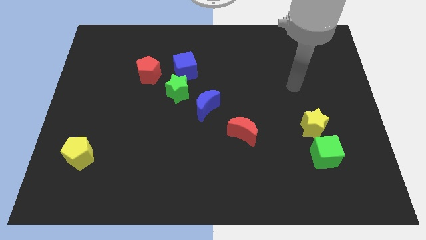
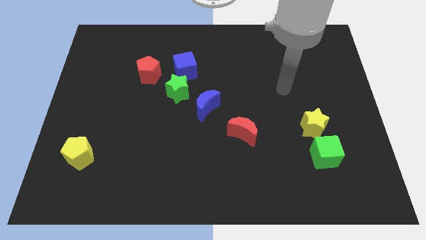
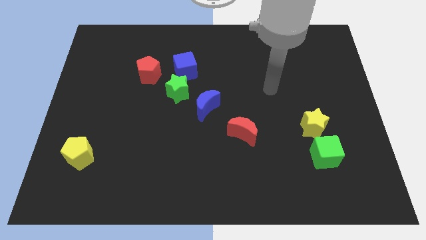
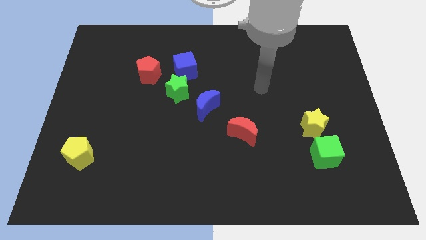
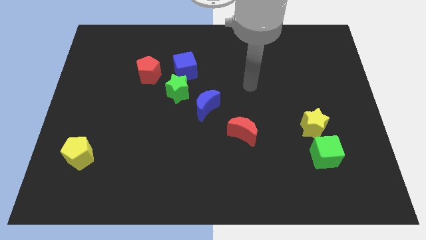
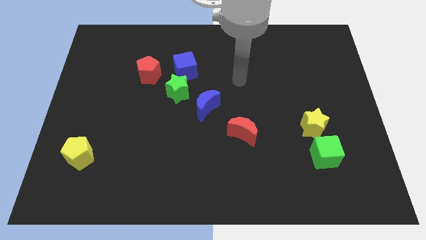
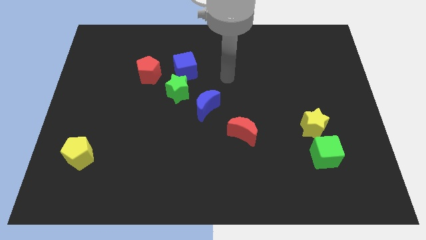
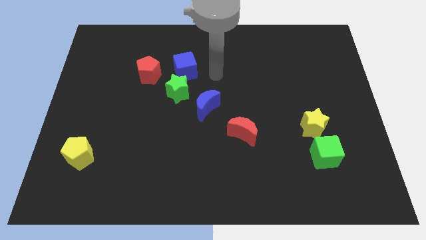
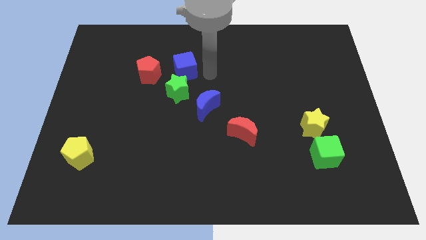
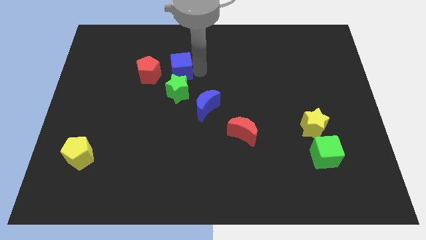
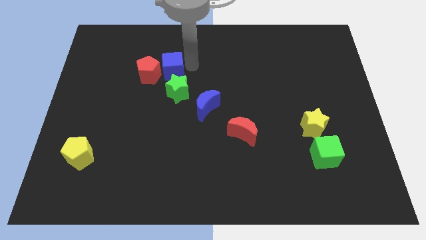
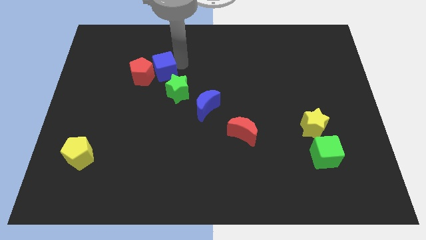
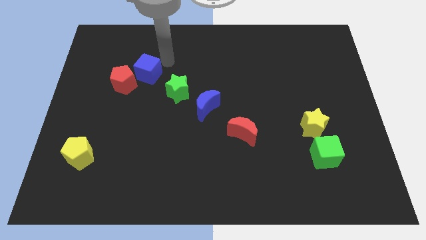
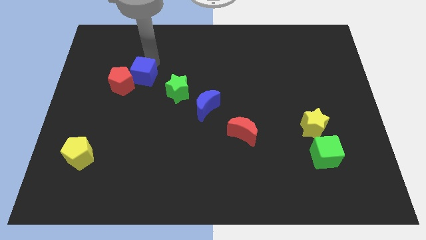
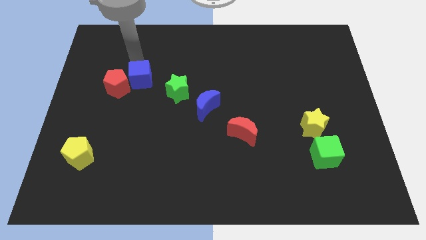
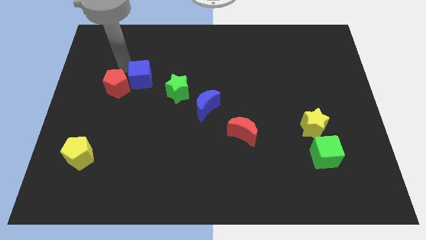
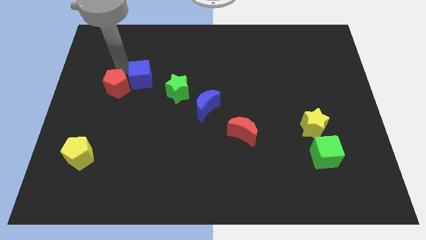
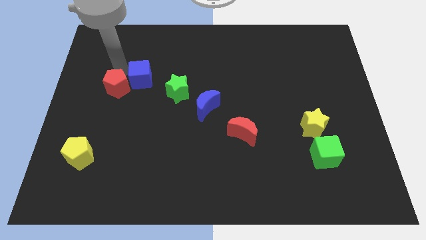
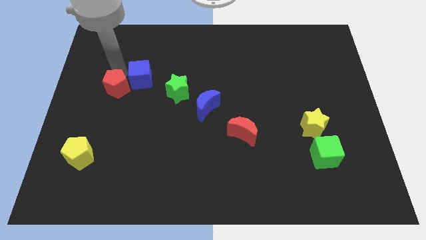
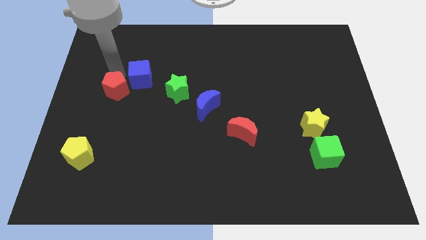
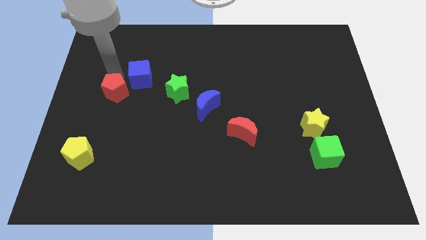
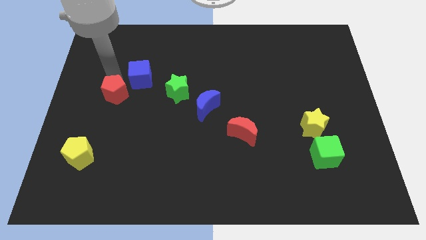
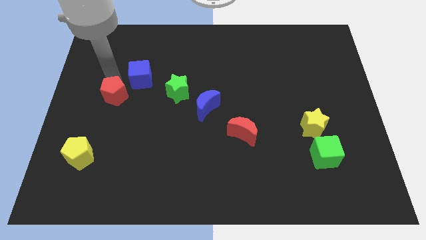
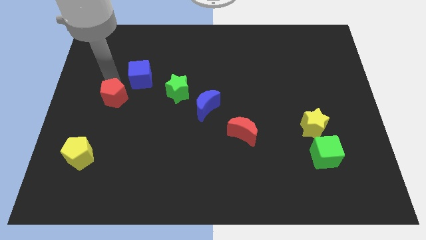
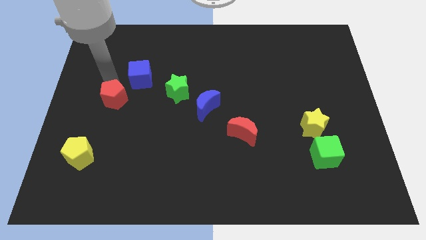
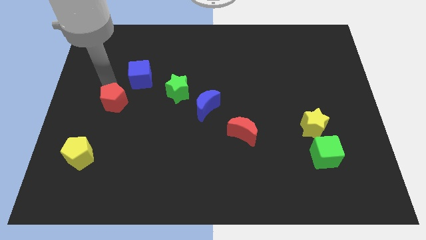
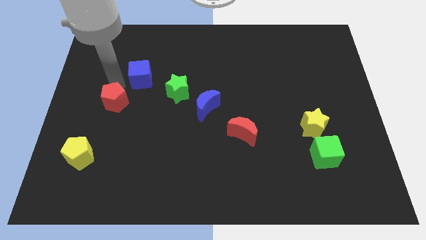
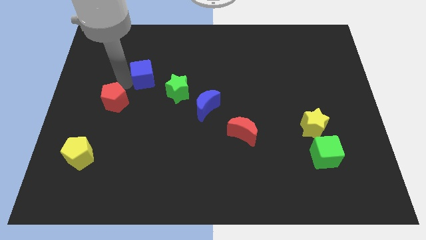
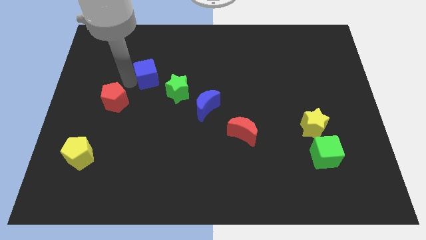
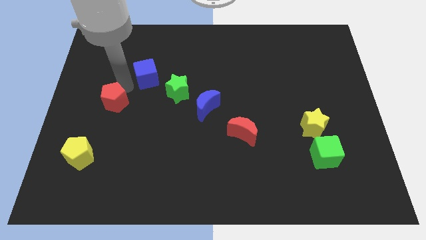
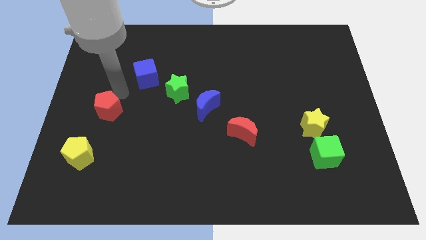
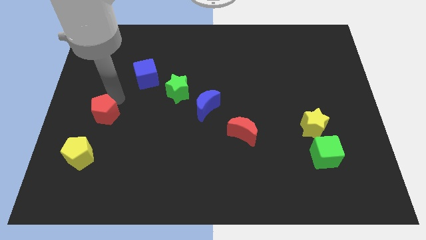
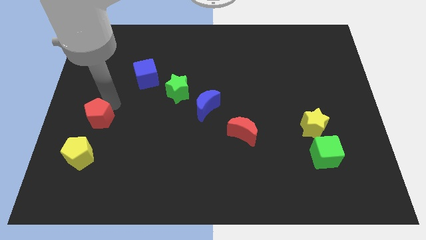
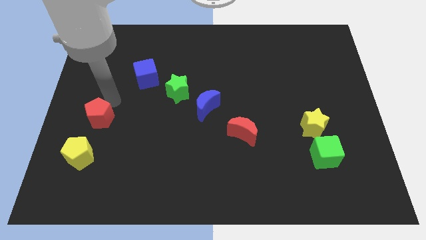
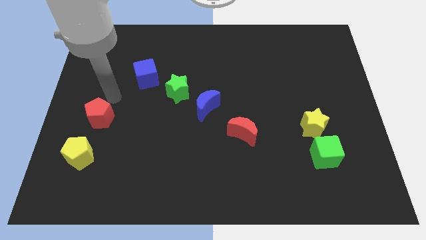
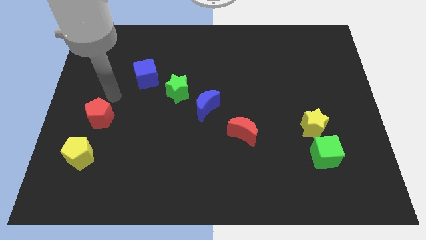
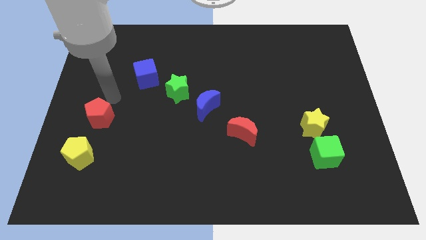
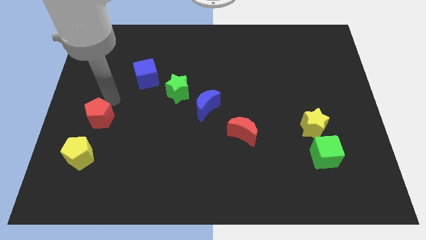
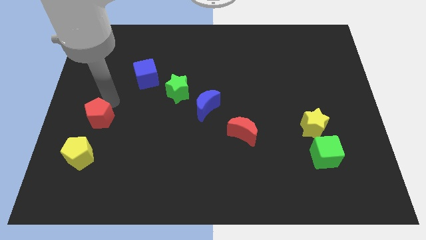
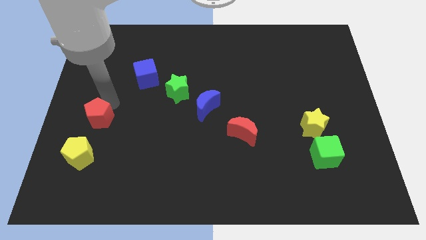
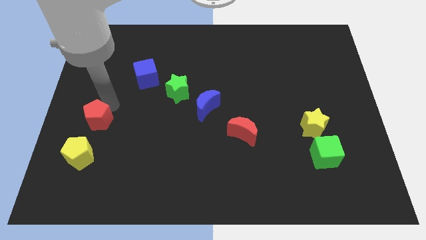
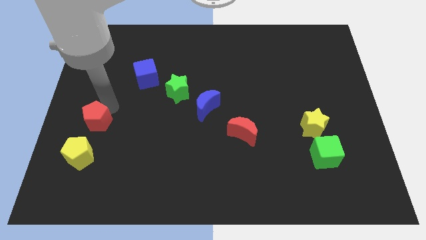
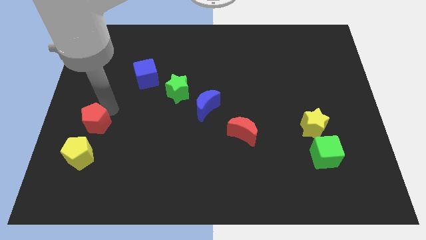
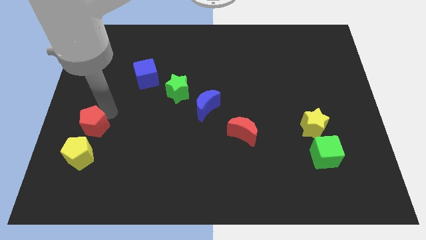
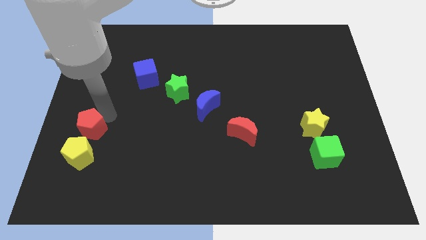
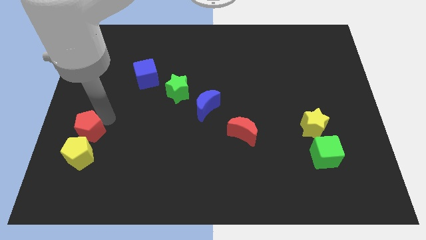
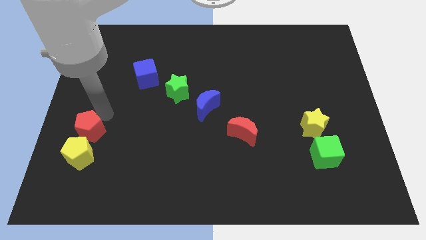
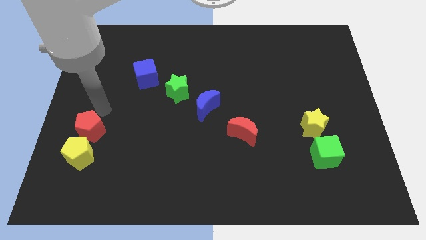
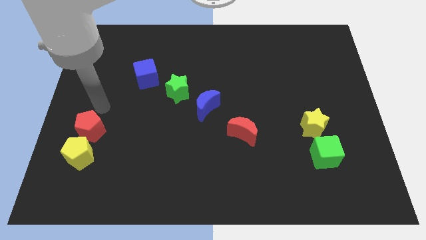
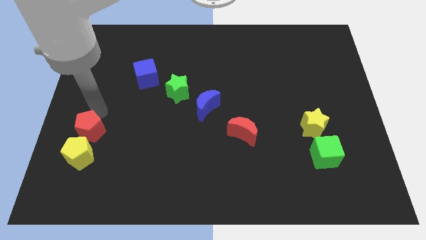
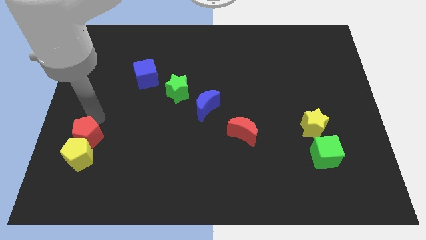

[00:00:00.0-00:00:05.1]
move the red pentagon towards the yellow pentagon

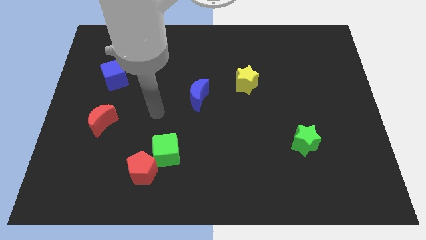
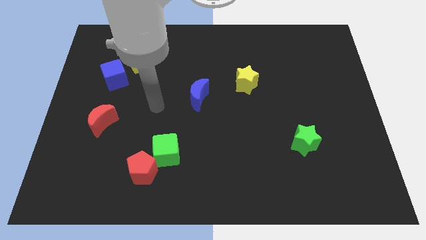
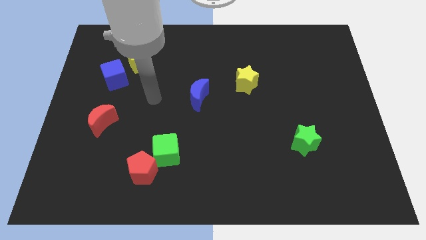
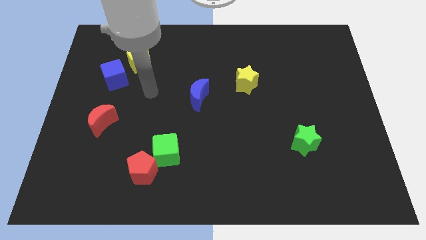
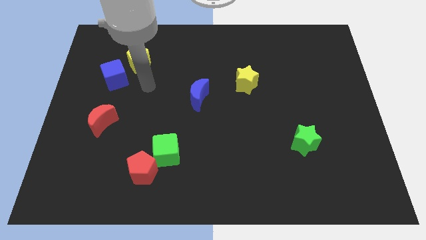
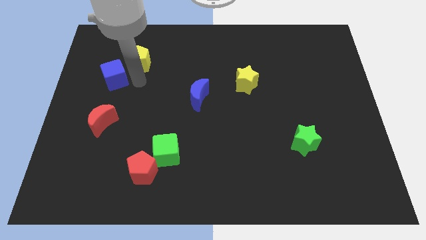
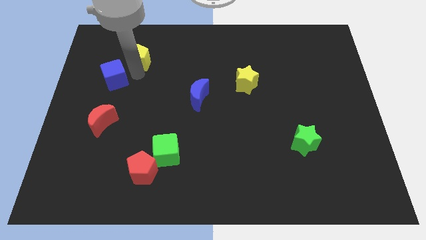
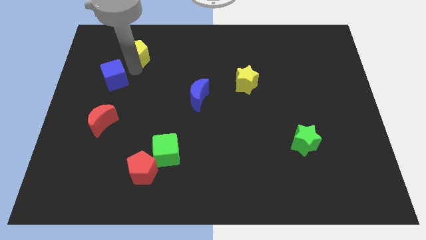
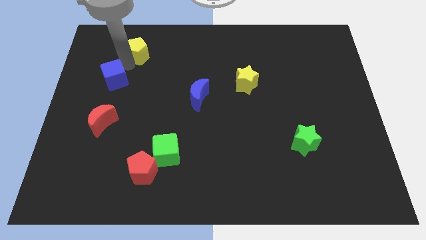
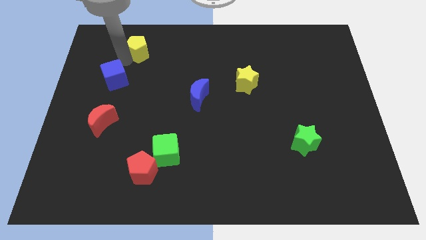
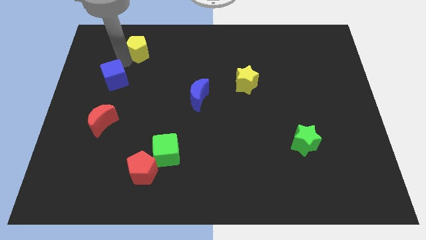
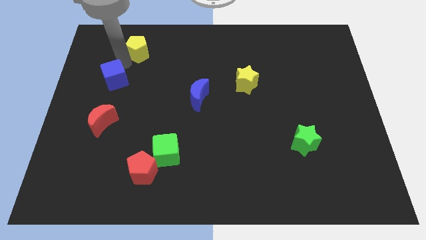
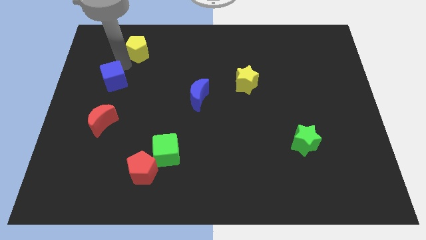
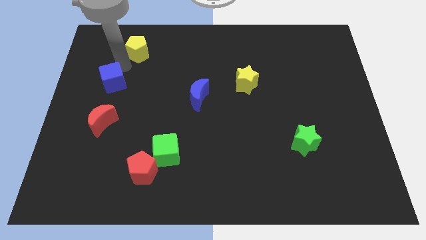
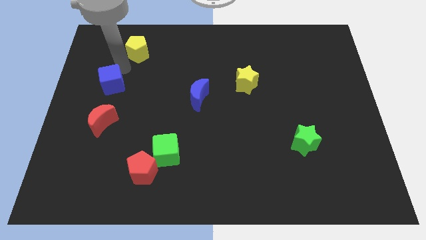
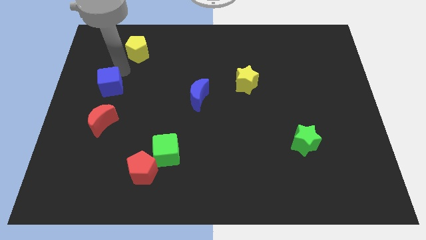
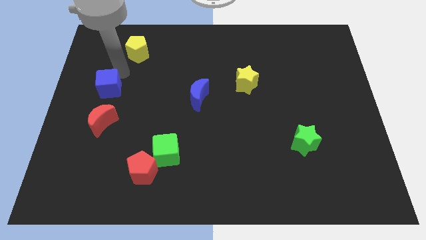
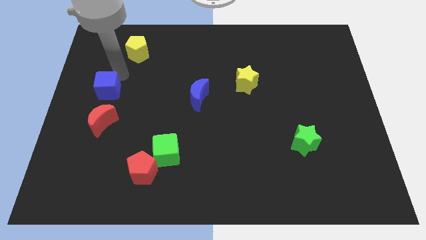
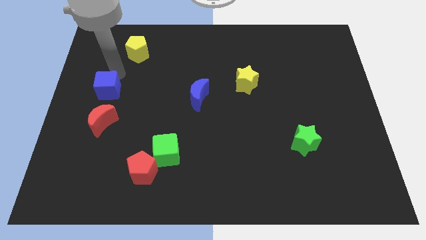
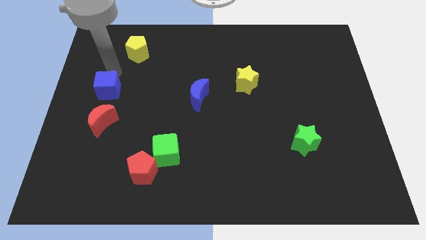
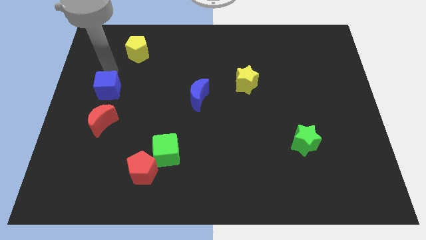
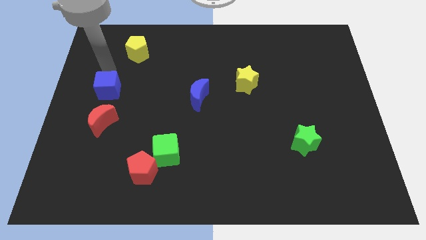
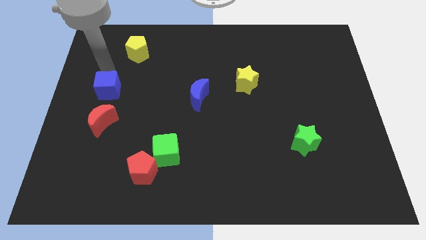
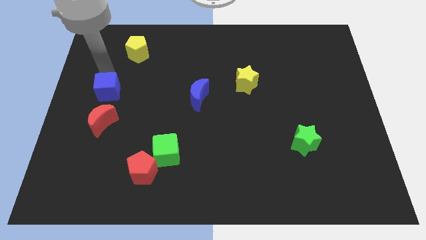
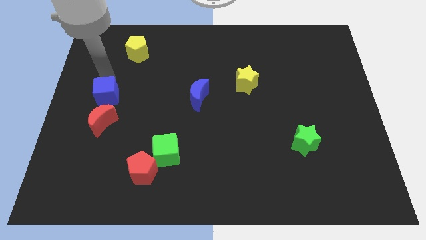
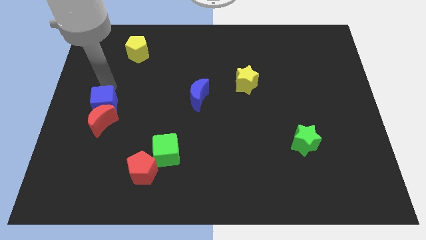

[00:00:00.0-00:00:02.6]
put the blue cube towards the red moon

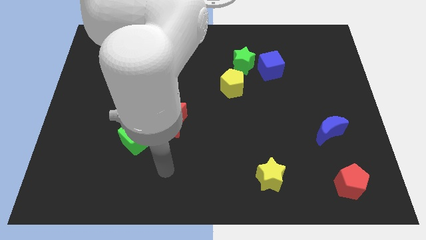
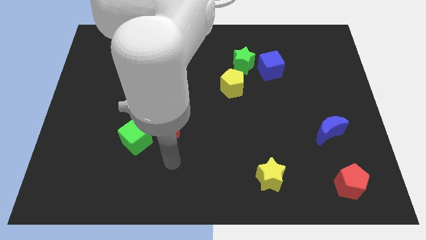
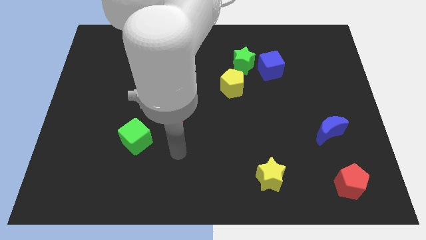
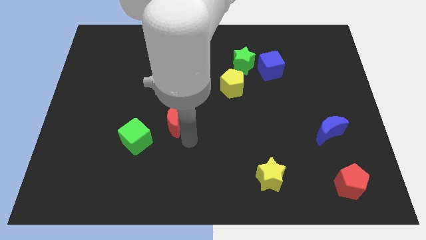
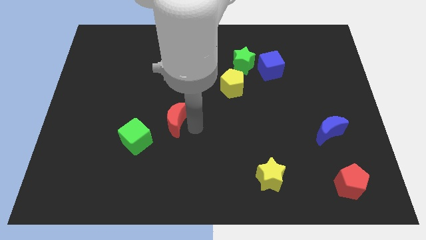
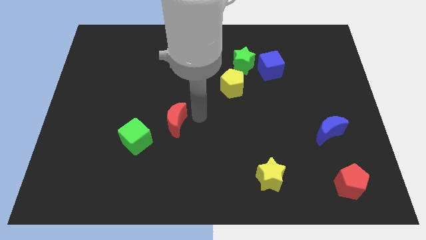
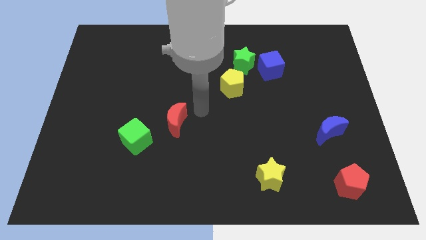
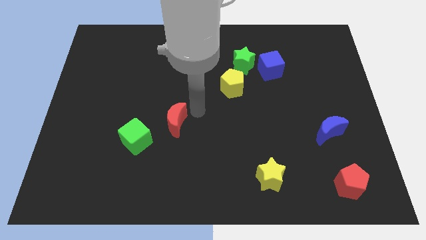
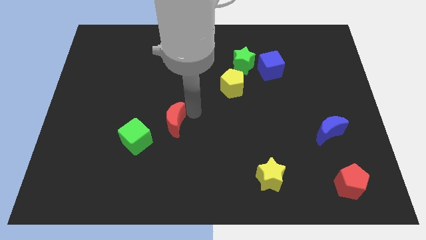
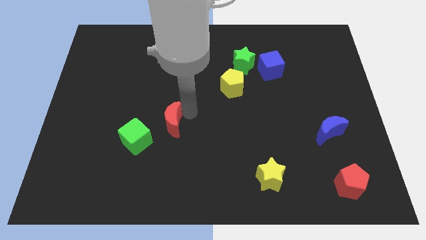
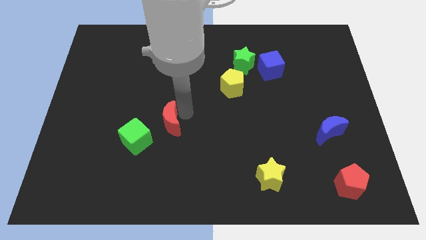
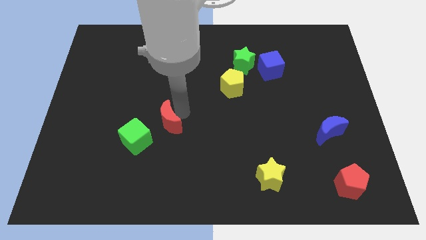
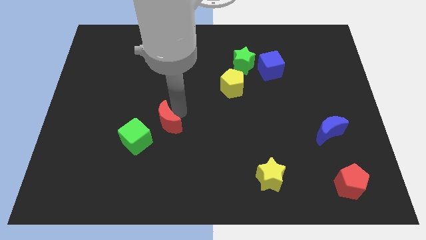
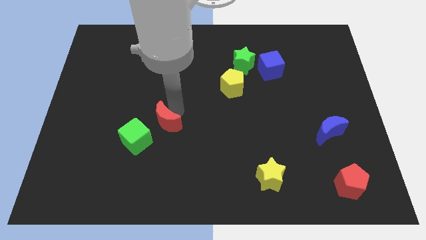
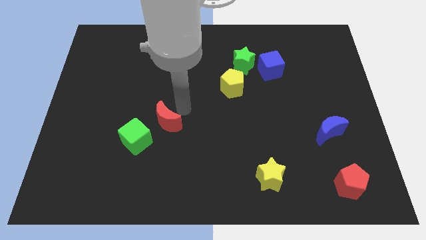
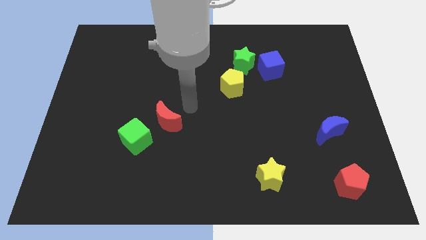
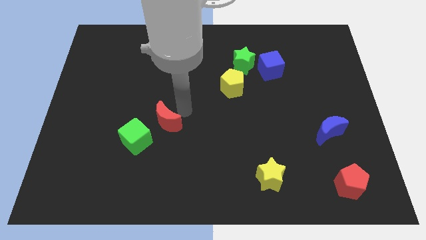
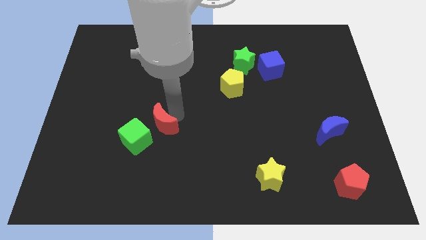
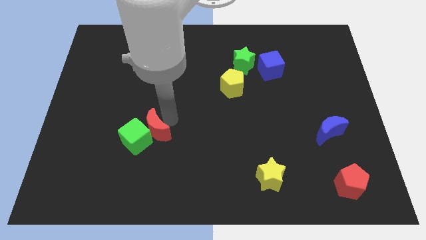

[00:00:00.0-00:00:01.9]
push the red moon close to the green cube
